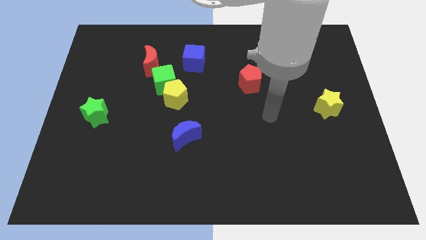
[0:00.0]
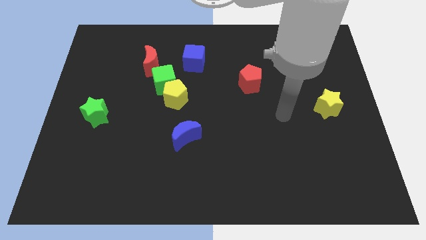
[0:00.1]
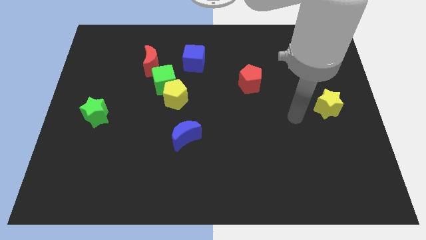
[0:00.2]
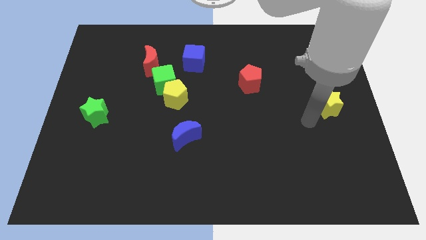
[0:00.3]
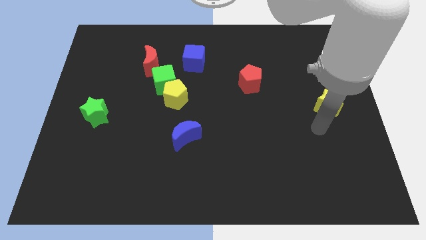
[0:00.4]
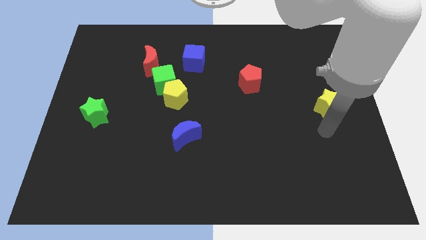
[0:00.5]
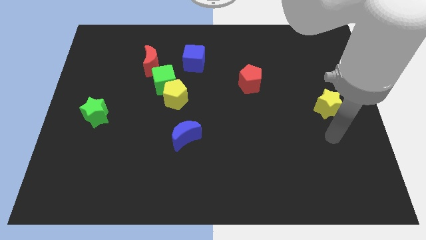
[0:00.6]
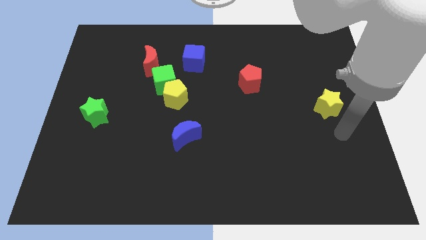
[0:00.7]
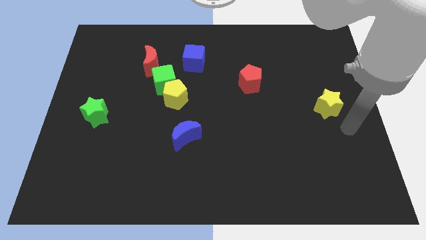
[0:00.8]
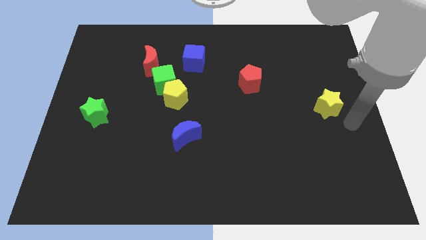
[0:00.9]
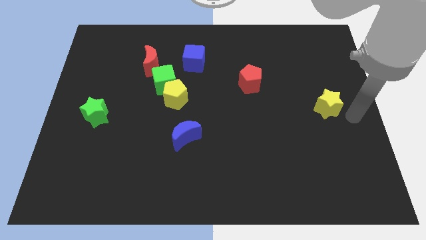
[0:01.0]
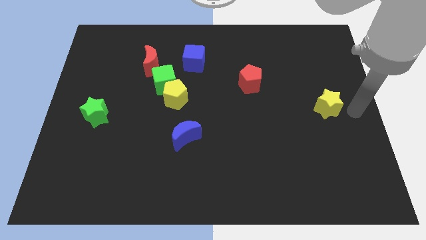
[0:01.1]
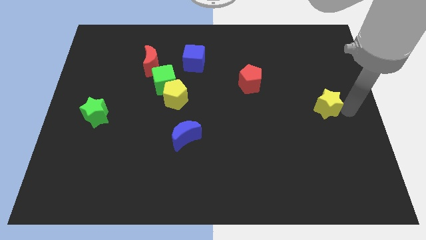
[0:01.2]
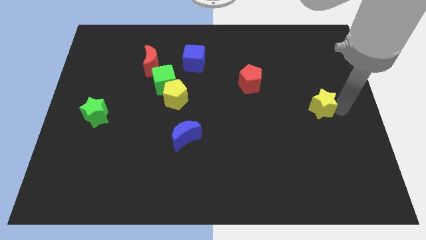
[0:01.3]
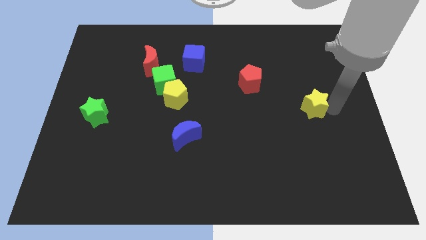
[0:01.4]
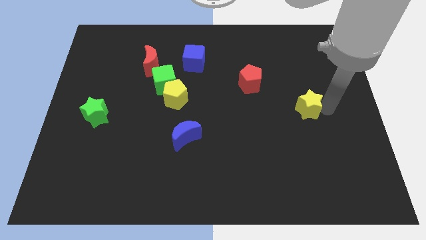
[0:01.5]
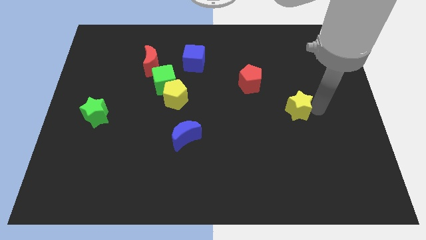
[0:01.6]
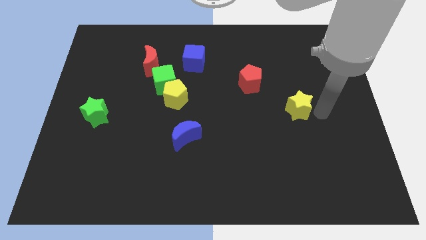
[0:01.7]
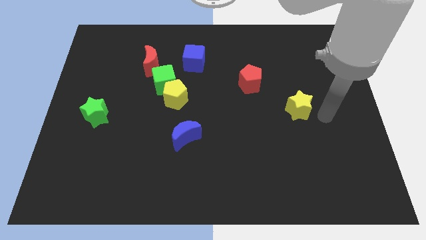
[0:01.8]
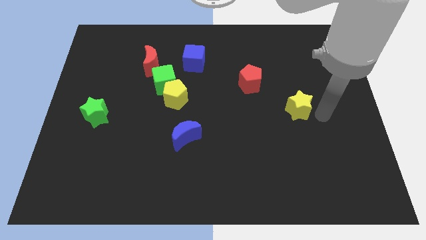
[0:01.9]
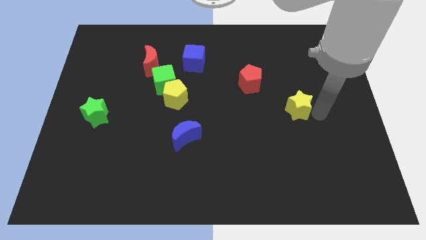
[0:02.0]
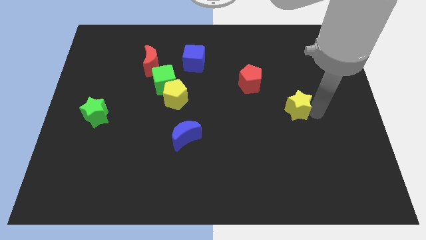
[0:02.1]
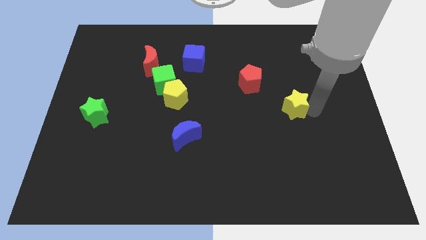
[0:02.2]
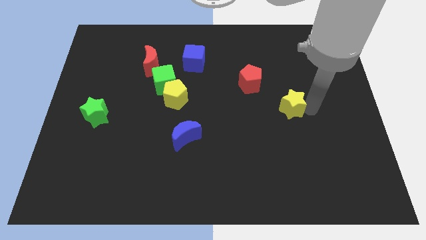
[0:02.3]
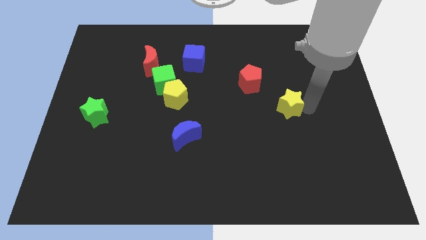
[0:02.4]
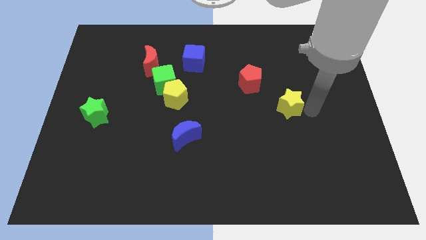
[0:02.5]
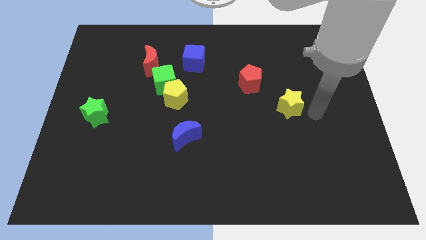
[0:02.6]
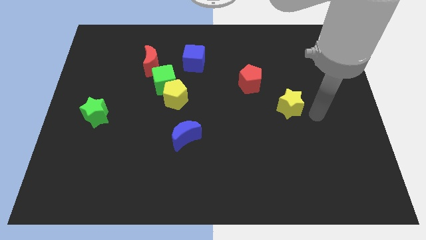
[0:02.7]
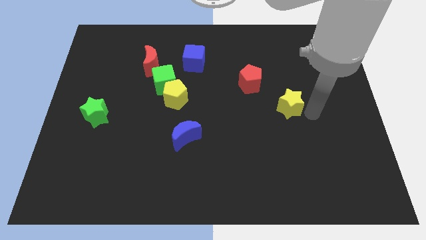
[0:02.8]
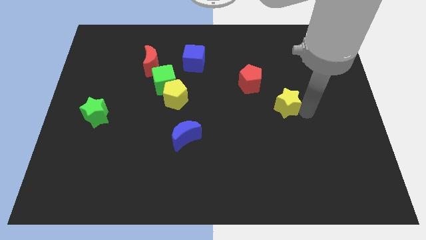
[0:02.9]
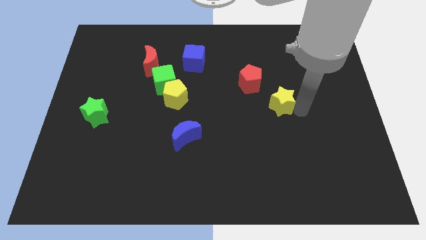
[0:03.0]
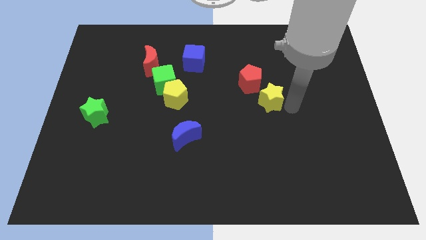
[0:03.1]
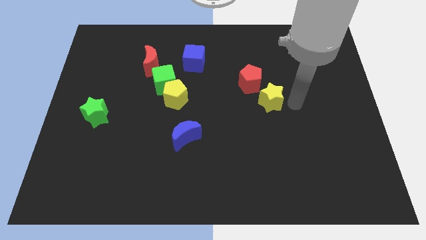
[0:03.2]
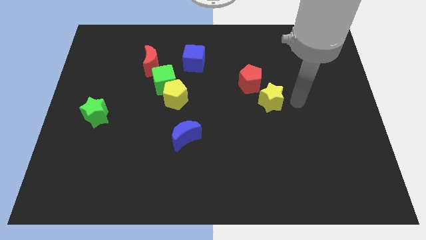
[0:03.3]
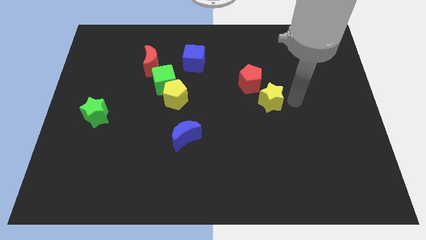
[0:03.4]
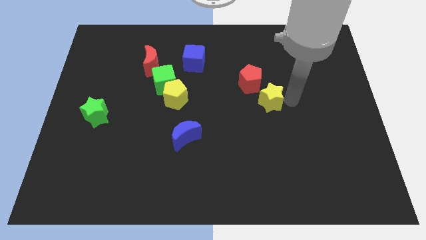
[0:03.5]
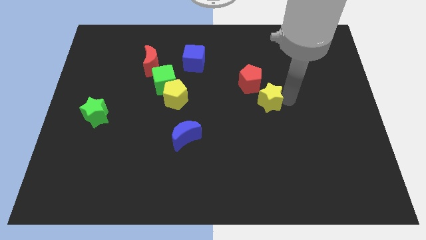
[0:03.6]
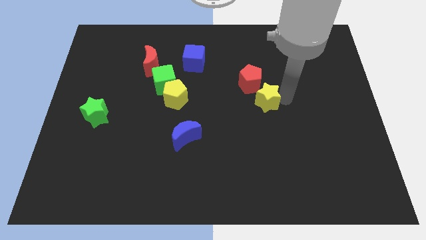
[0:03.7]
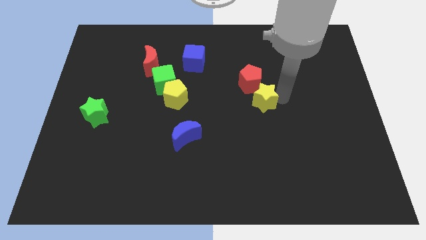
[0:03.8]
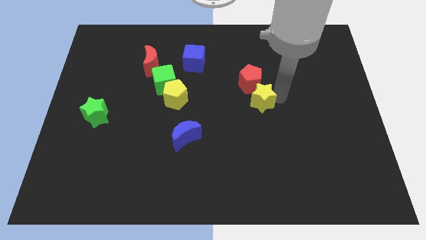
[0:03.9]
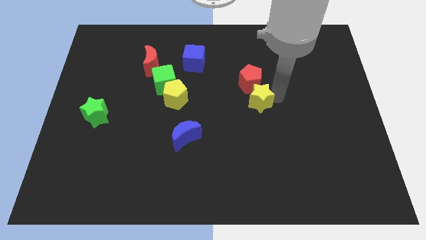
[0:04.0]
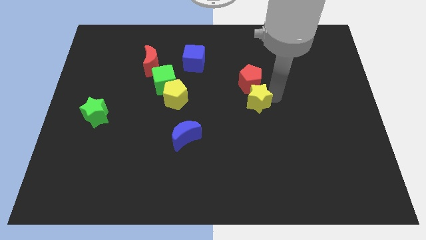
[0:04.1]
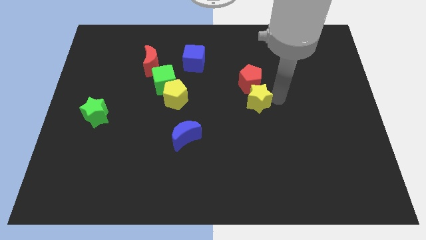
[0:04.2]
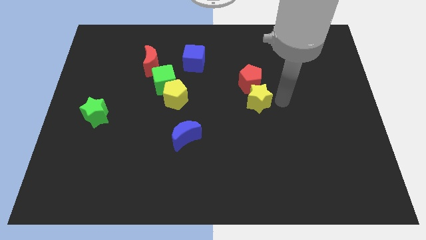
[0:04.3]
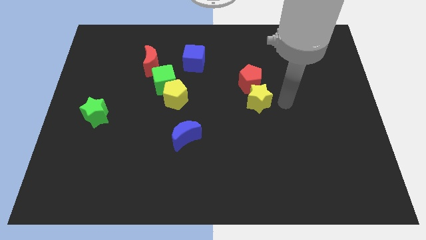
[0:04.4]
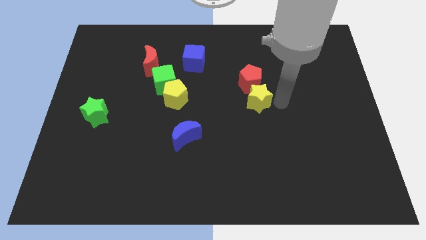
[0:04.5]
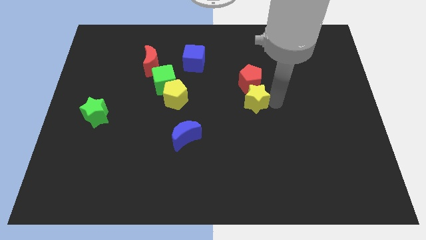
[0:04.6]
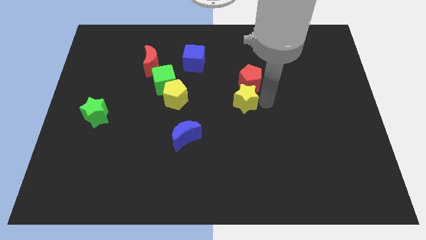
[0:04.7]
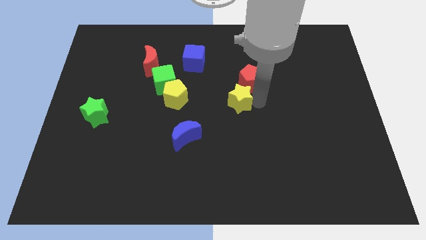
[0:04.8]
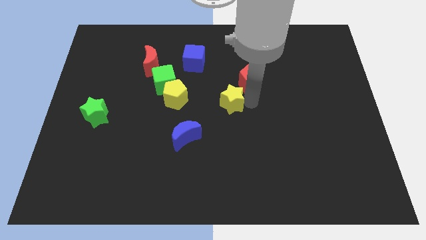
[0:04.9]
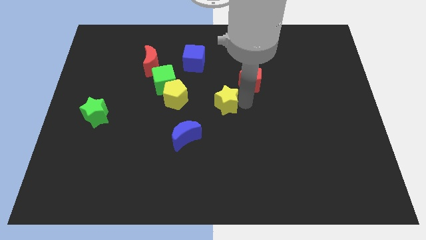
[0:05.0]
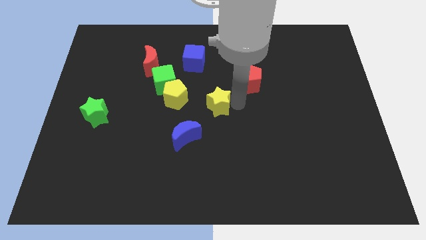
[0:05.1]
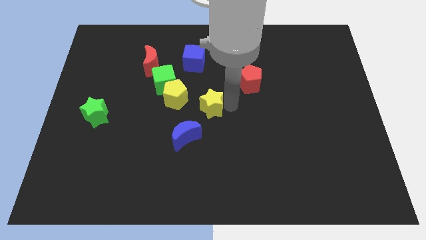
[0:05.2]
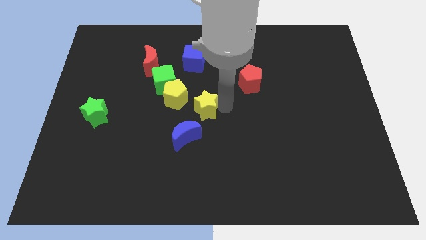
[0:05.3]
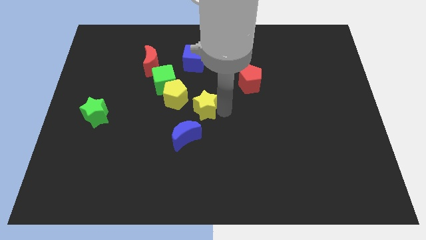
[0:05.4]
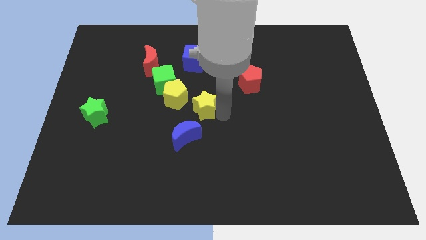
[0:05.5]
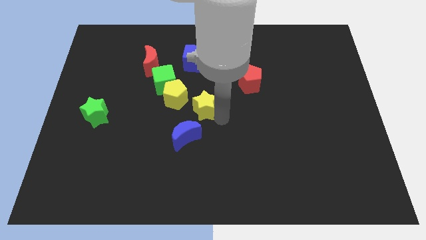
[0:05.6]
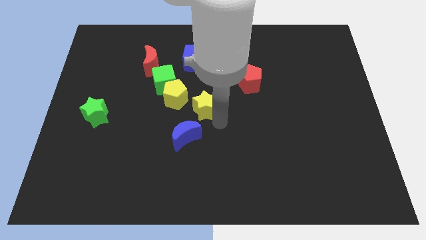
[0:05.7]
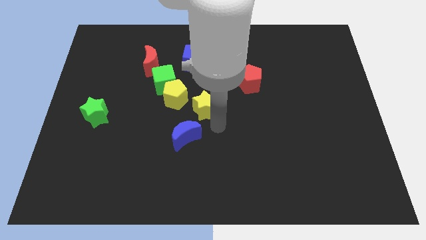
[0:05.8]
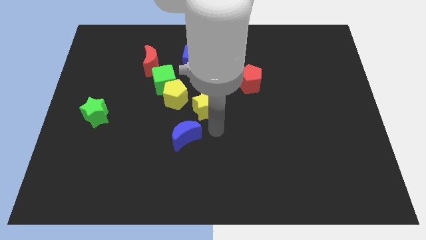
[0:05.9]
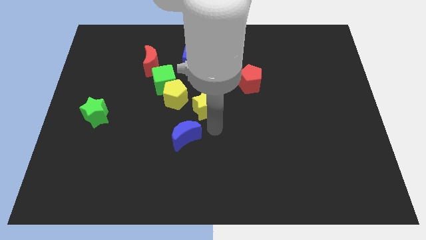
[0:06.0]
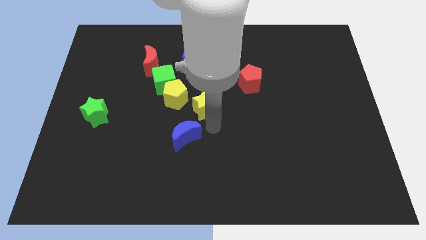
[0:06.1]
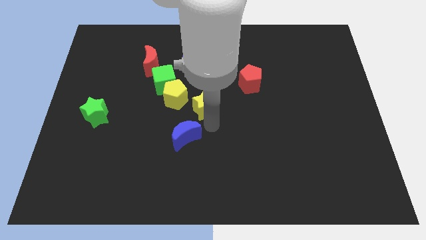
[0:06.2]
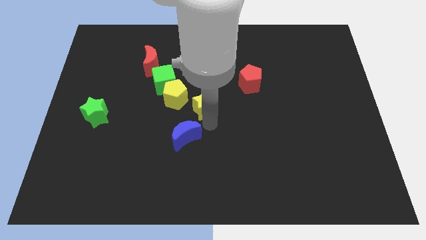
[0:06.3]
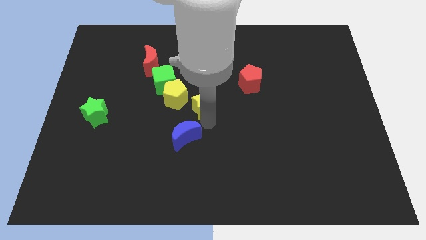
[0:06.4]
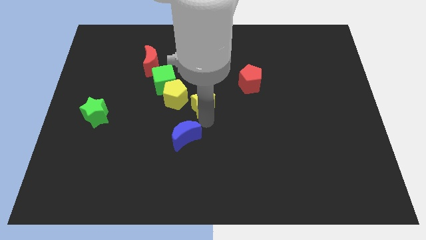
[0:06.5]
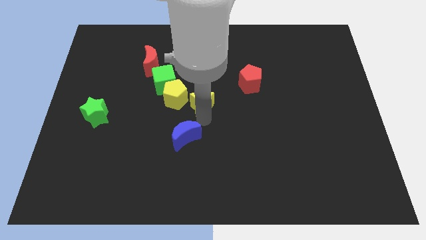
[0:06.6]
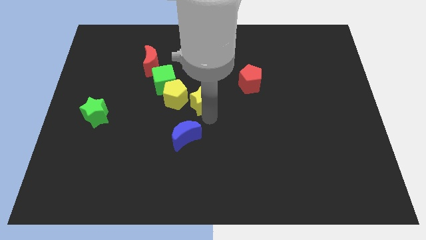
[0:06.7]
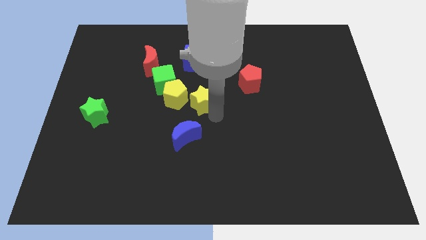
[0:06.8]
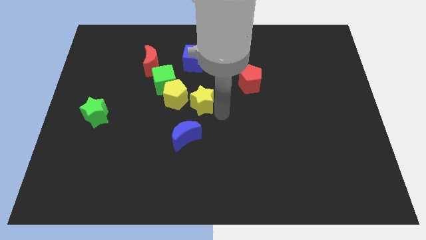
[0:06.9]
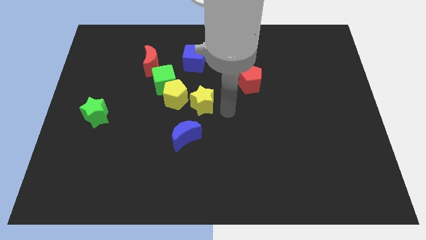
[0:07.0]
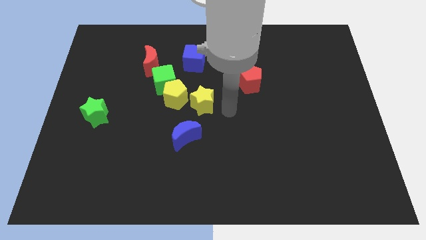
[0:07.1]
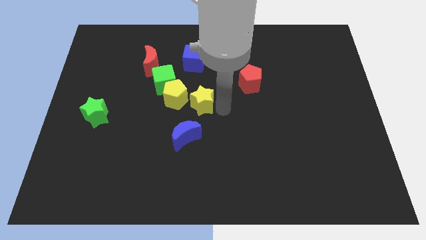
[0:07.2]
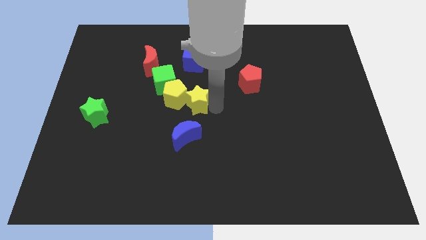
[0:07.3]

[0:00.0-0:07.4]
move the yellow star next to the yellow pentagon
